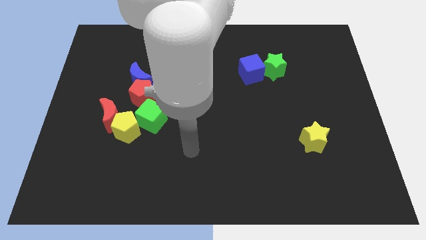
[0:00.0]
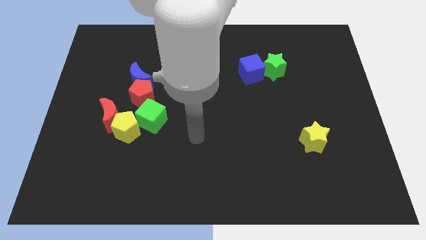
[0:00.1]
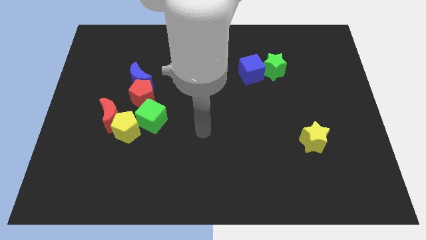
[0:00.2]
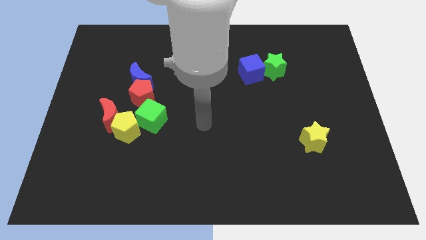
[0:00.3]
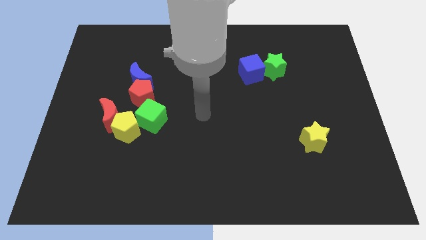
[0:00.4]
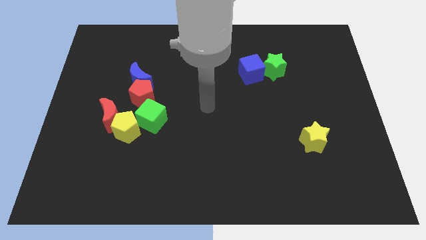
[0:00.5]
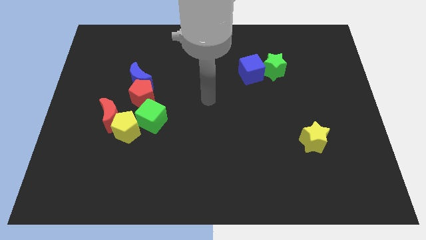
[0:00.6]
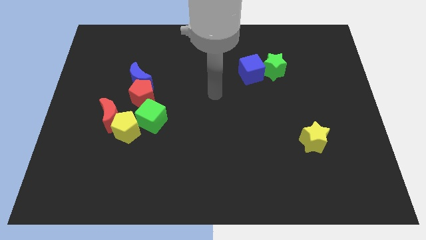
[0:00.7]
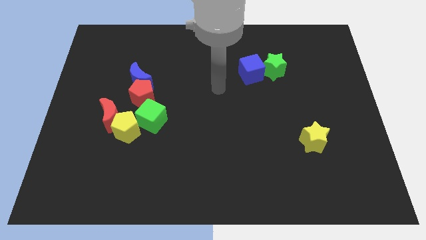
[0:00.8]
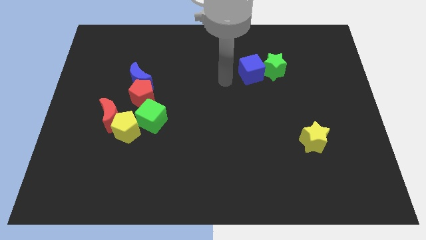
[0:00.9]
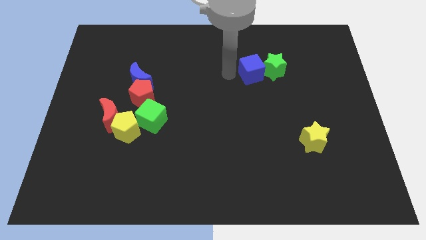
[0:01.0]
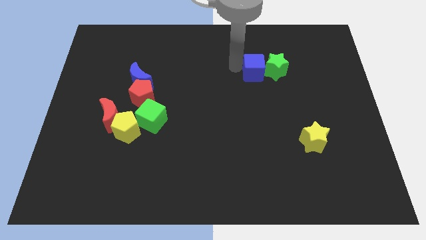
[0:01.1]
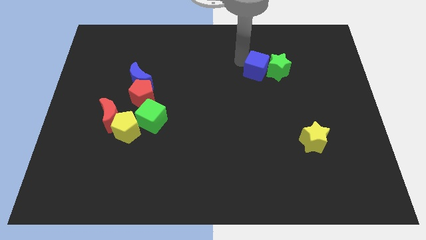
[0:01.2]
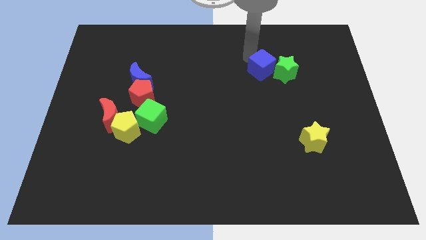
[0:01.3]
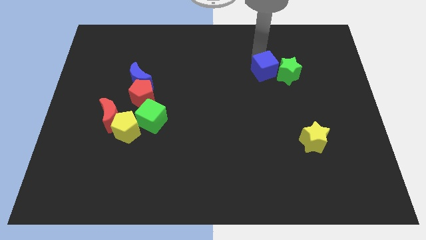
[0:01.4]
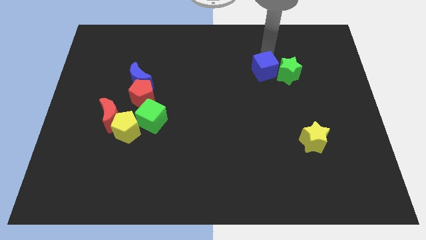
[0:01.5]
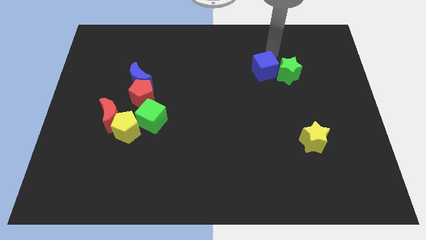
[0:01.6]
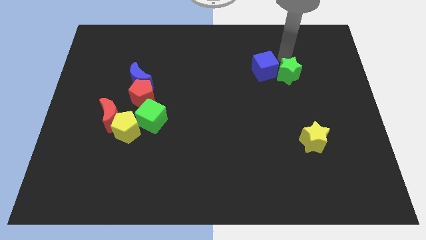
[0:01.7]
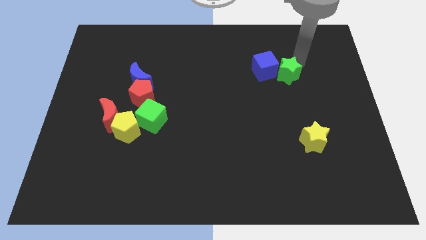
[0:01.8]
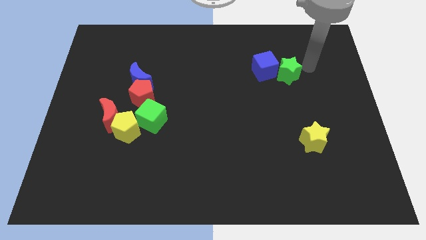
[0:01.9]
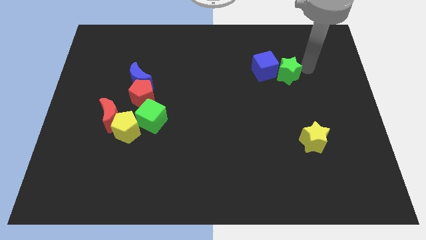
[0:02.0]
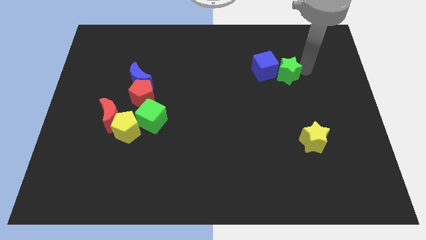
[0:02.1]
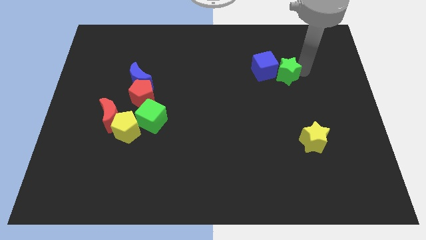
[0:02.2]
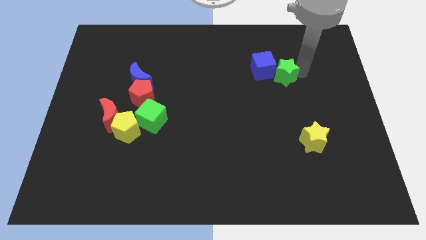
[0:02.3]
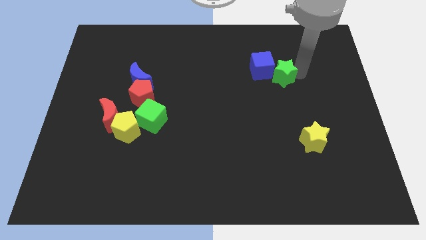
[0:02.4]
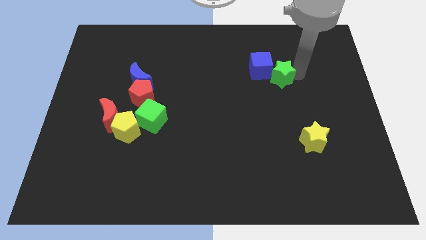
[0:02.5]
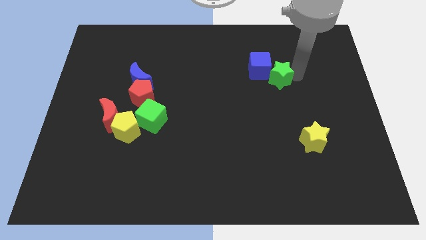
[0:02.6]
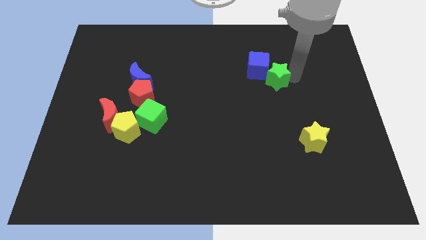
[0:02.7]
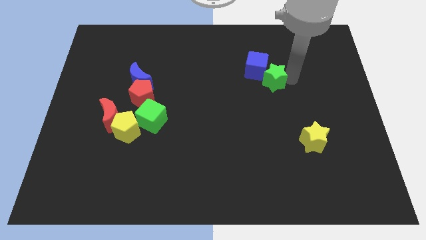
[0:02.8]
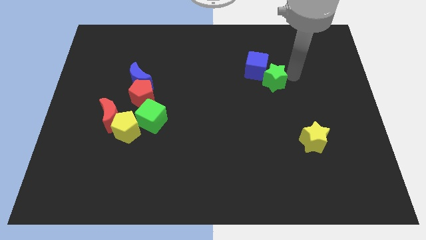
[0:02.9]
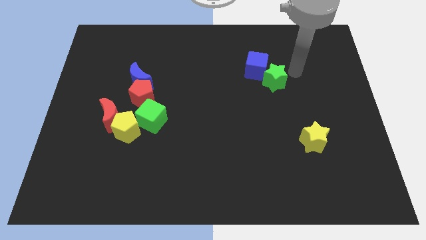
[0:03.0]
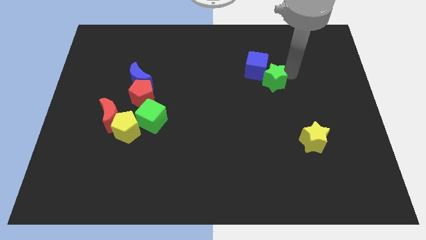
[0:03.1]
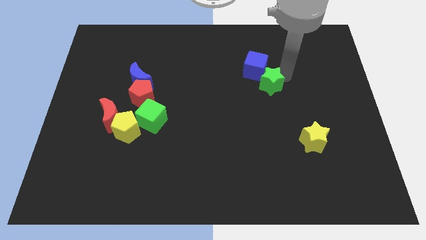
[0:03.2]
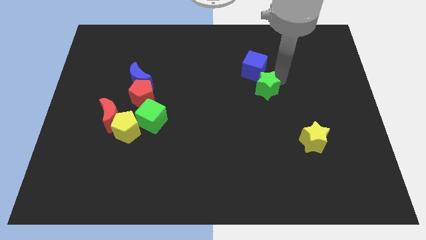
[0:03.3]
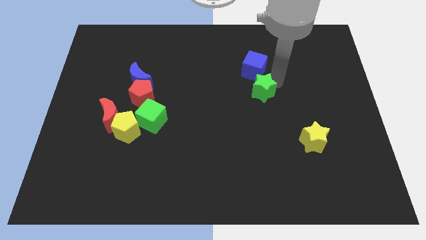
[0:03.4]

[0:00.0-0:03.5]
slightly slide the green star downwards and left diagonally

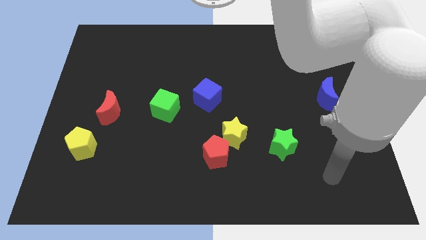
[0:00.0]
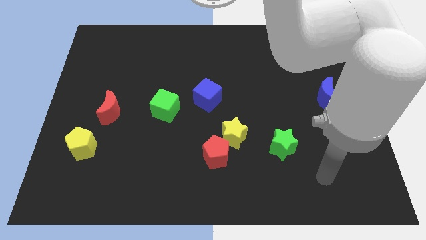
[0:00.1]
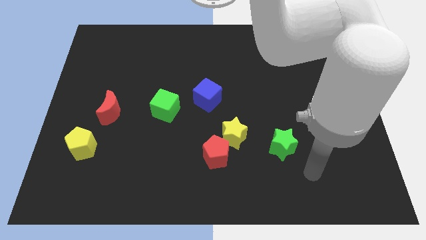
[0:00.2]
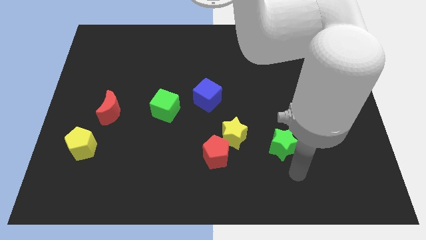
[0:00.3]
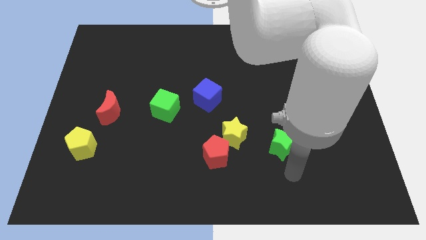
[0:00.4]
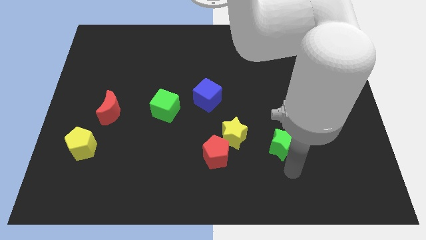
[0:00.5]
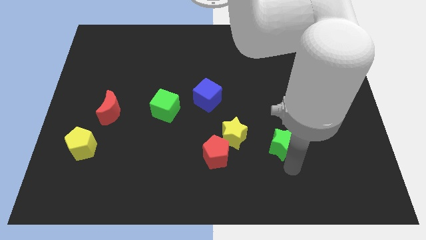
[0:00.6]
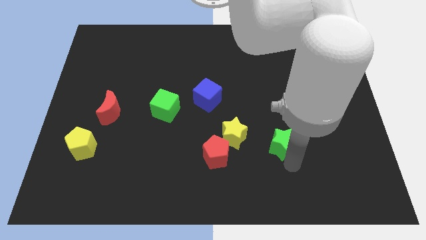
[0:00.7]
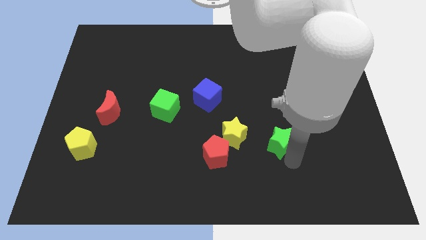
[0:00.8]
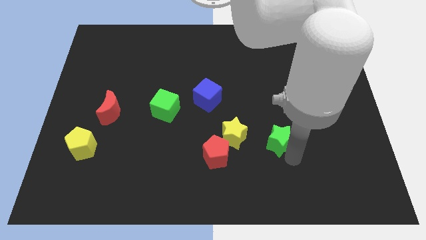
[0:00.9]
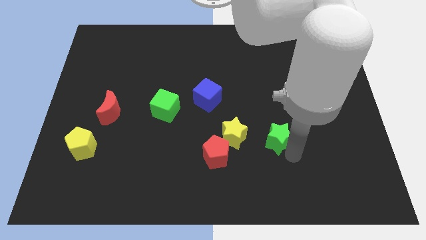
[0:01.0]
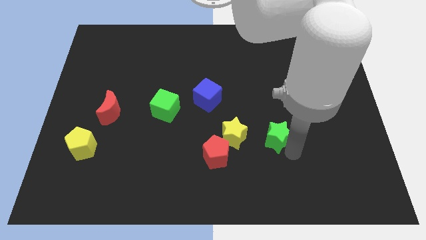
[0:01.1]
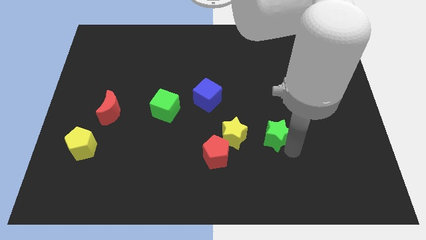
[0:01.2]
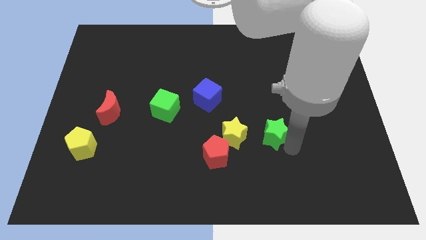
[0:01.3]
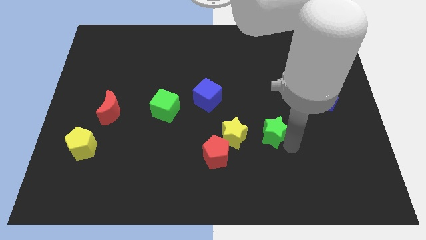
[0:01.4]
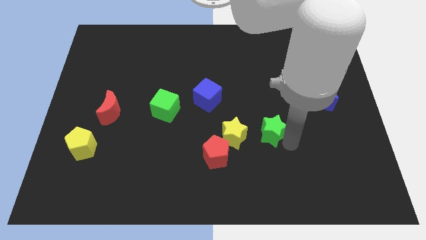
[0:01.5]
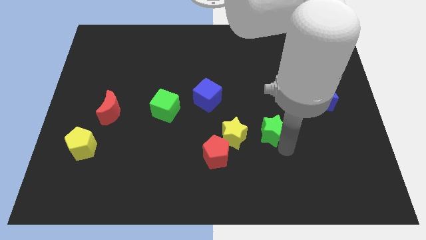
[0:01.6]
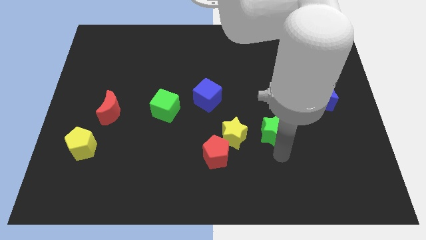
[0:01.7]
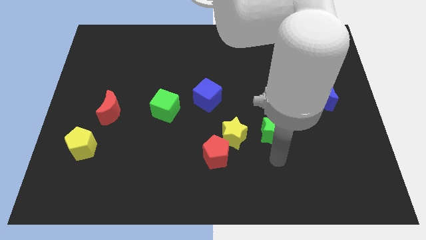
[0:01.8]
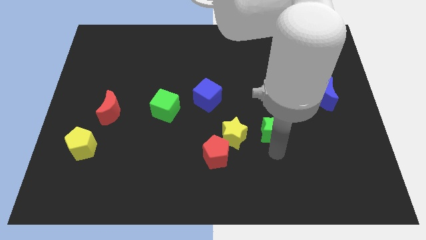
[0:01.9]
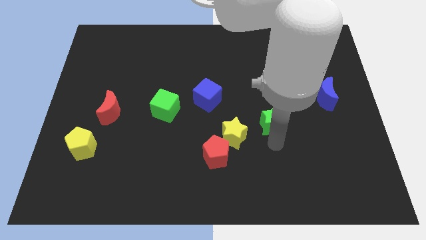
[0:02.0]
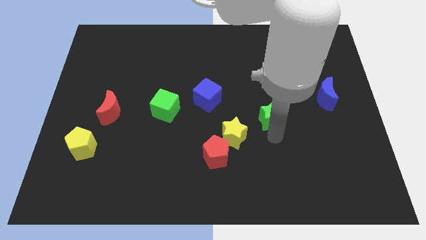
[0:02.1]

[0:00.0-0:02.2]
move the green star upwards somewhat

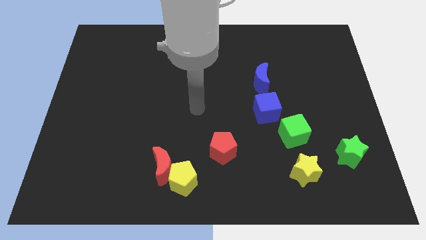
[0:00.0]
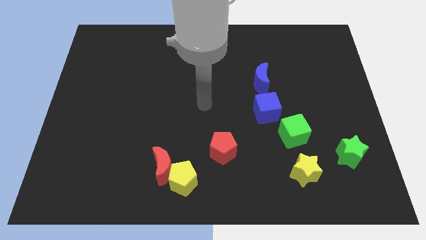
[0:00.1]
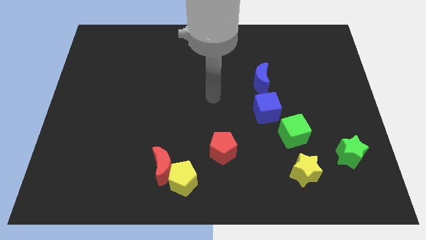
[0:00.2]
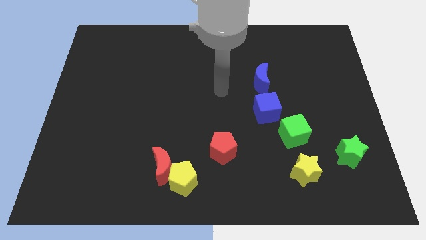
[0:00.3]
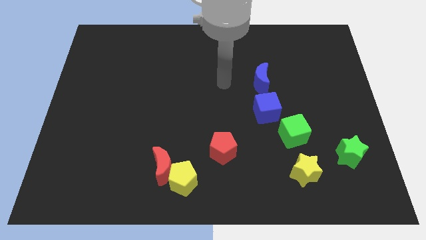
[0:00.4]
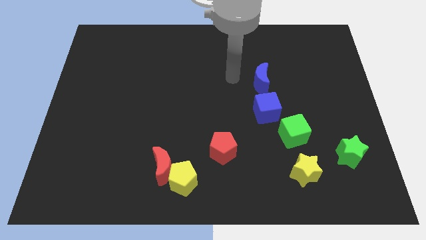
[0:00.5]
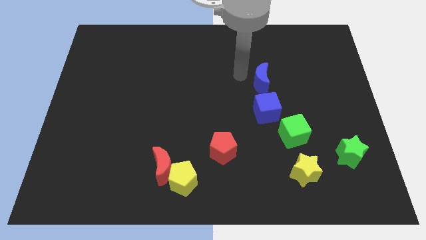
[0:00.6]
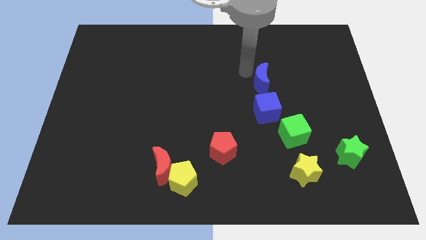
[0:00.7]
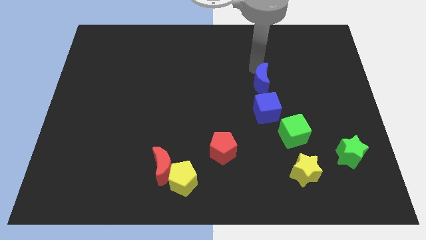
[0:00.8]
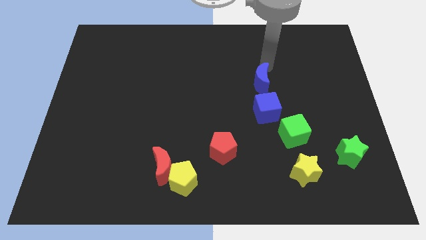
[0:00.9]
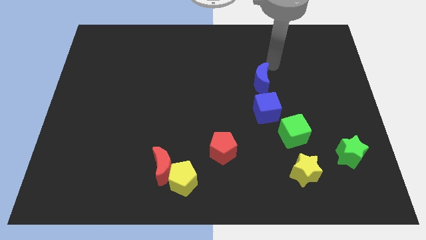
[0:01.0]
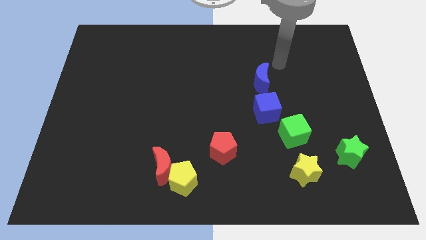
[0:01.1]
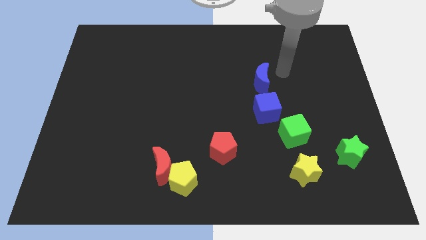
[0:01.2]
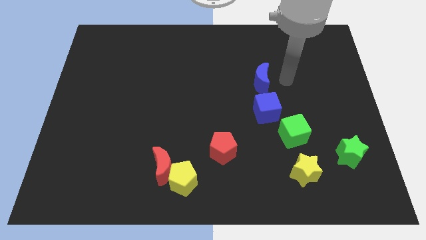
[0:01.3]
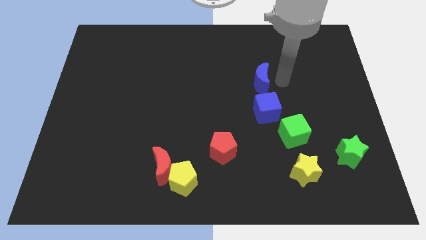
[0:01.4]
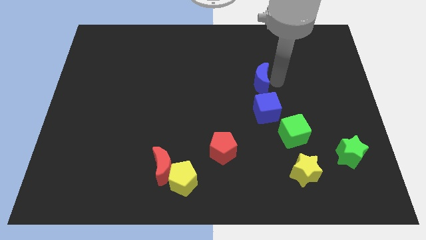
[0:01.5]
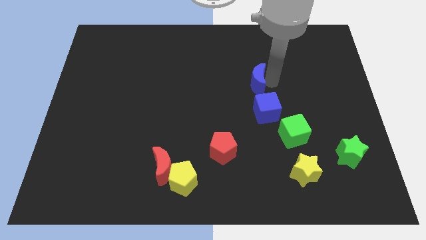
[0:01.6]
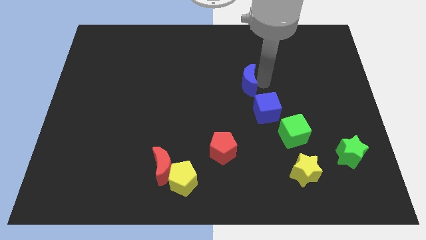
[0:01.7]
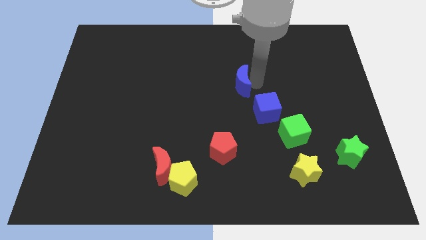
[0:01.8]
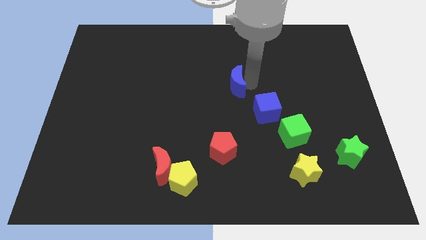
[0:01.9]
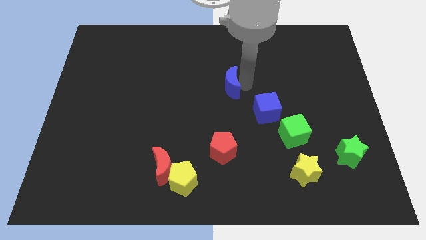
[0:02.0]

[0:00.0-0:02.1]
push the blue moon somewhat to the left
